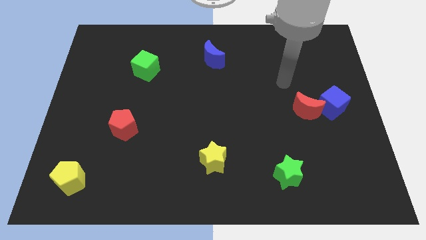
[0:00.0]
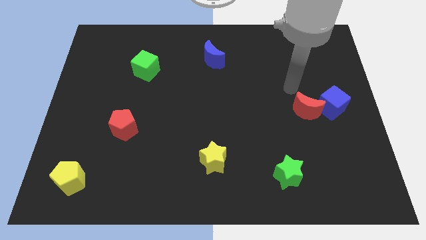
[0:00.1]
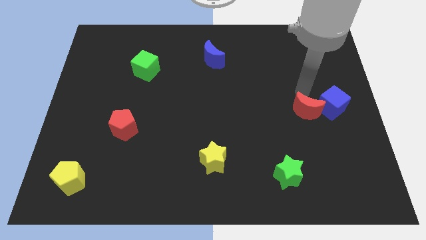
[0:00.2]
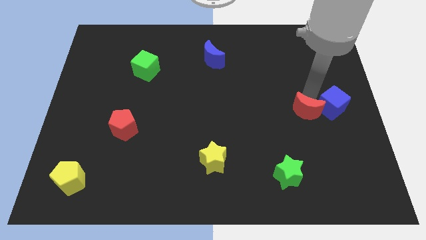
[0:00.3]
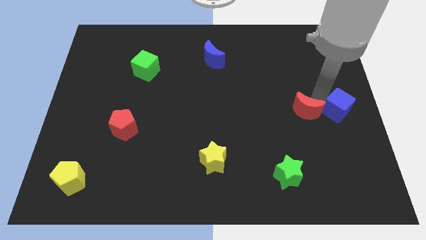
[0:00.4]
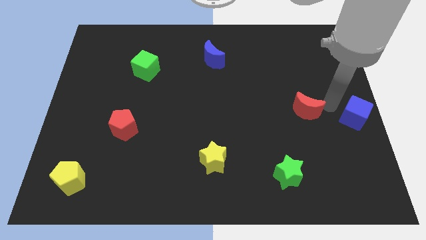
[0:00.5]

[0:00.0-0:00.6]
move the red moon away from the blue cube

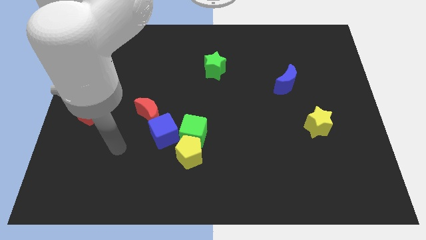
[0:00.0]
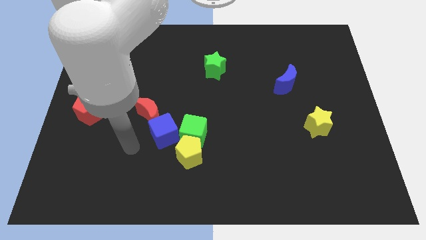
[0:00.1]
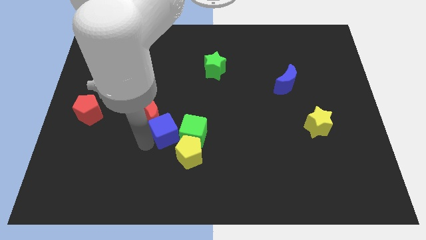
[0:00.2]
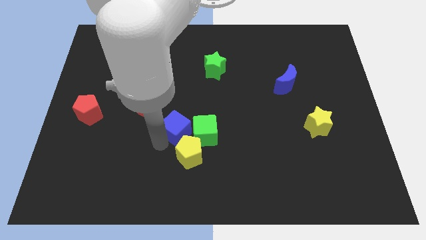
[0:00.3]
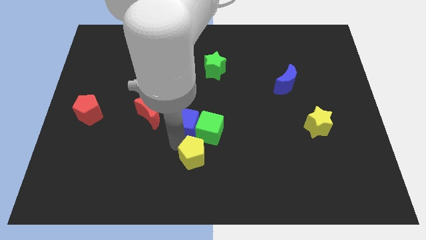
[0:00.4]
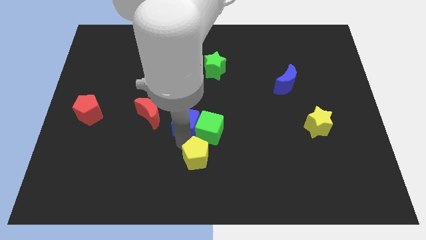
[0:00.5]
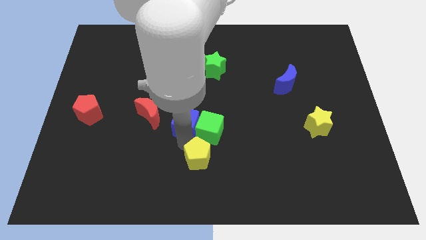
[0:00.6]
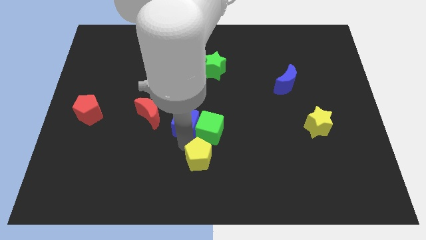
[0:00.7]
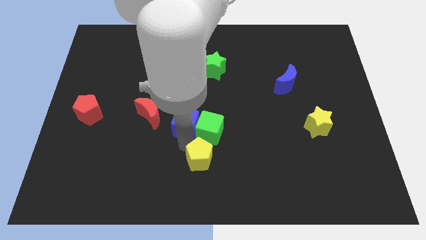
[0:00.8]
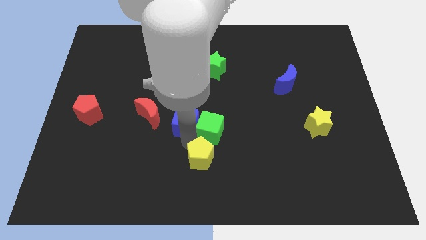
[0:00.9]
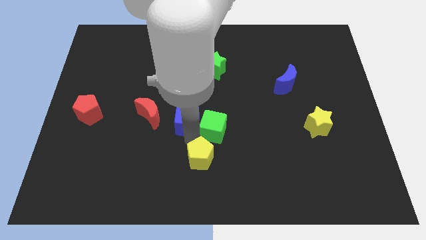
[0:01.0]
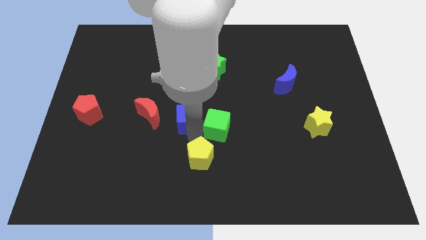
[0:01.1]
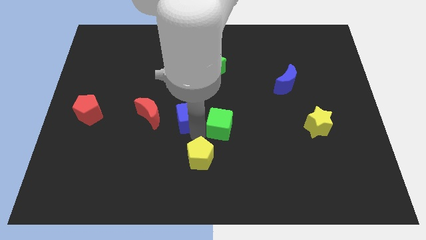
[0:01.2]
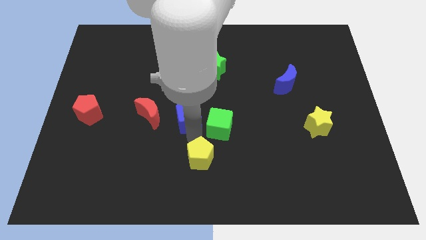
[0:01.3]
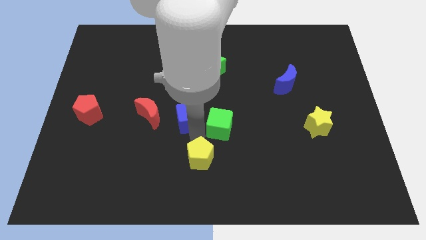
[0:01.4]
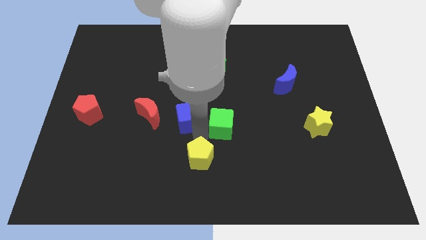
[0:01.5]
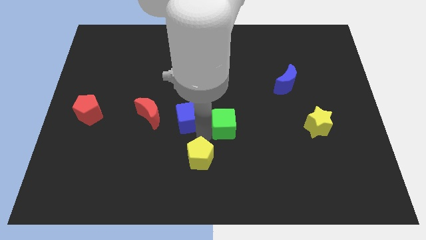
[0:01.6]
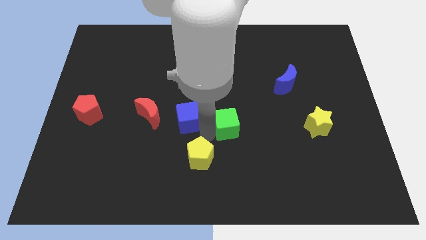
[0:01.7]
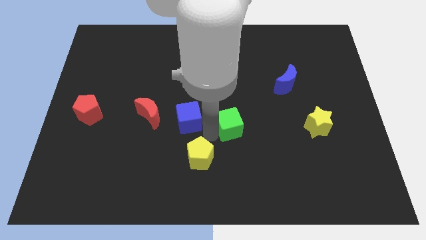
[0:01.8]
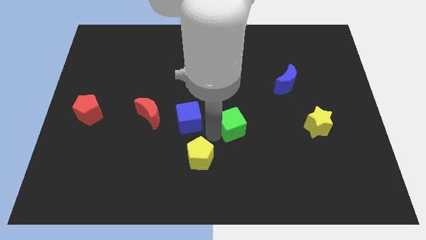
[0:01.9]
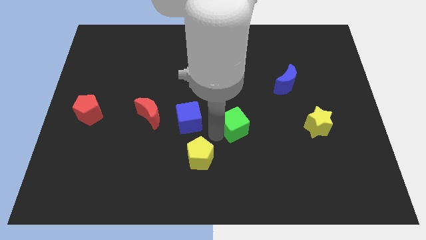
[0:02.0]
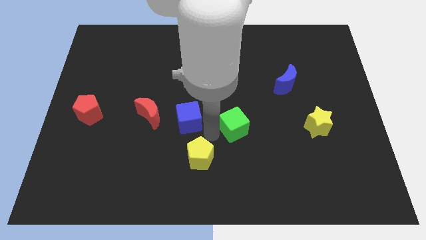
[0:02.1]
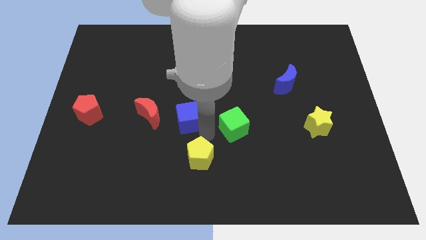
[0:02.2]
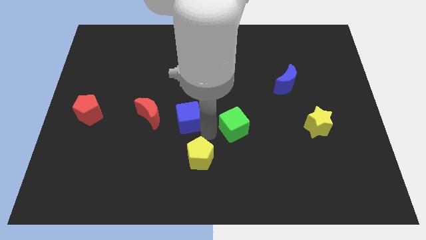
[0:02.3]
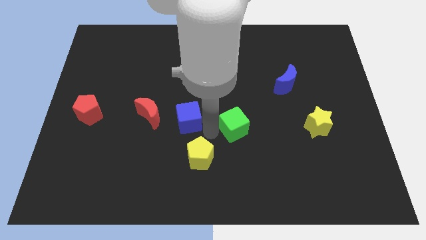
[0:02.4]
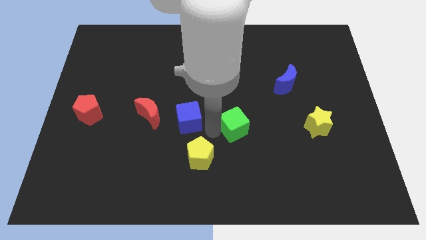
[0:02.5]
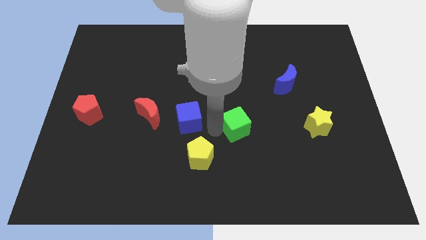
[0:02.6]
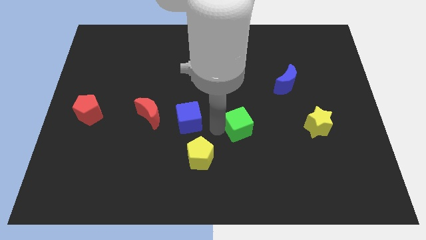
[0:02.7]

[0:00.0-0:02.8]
pull the green cube apart from the yellow pentagon and blue cube

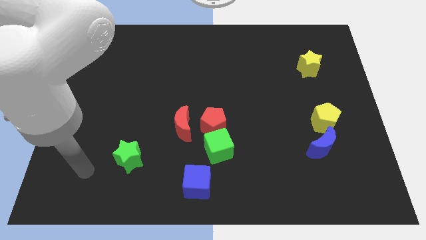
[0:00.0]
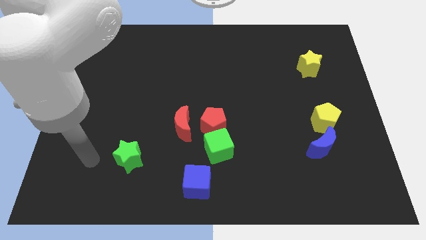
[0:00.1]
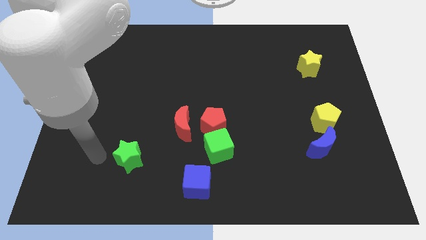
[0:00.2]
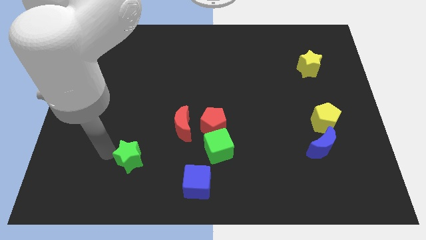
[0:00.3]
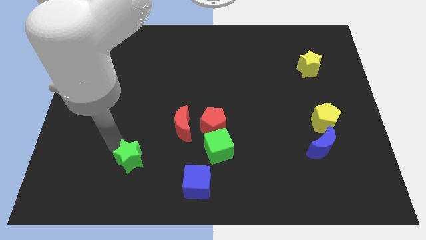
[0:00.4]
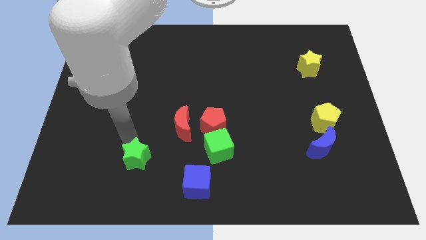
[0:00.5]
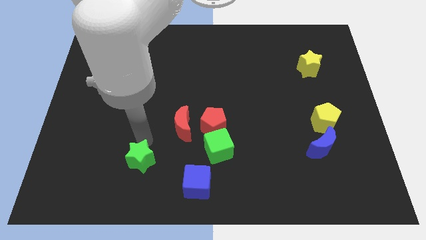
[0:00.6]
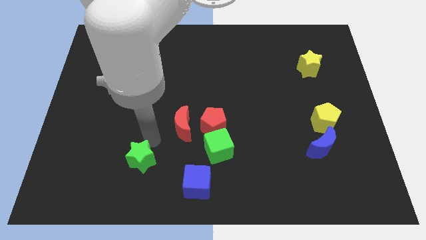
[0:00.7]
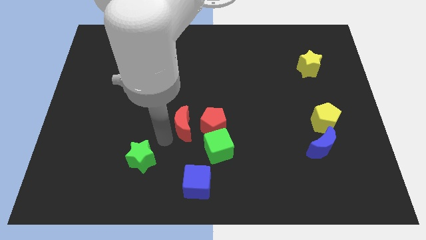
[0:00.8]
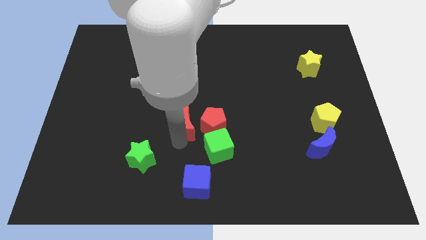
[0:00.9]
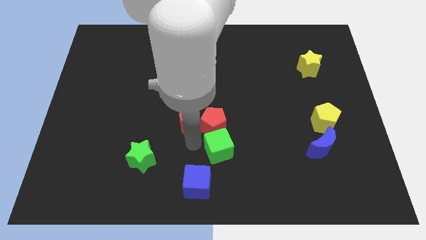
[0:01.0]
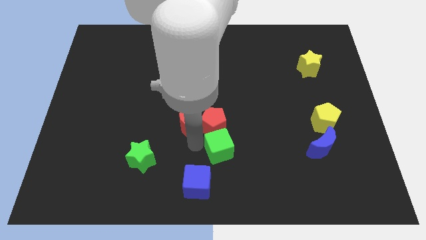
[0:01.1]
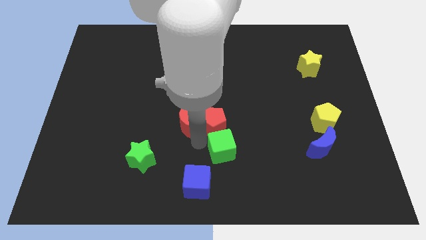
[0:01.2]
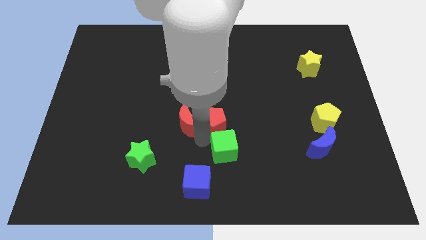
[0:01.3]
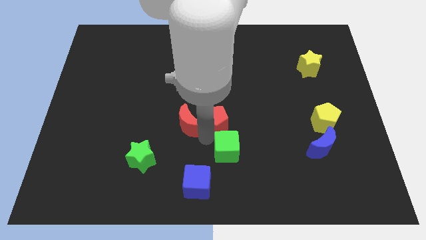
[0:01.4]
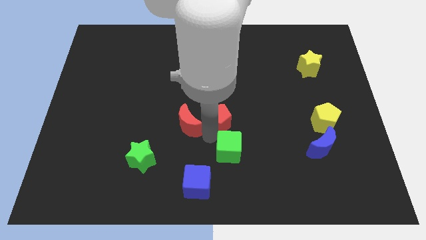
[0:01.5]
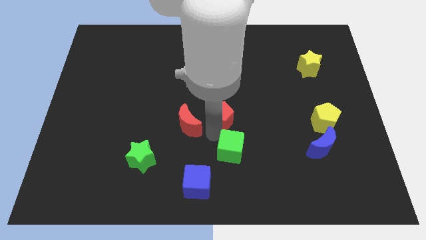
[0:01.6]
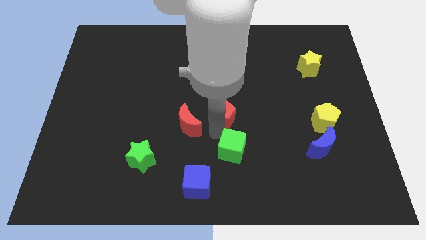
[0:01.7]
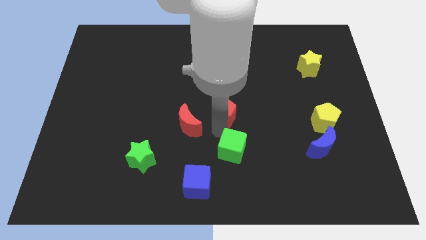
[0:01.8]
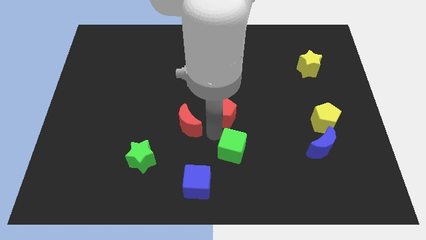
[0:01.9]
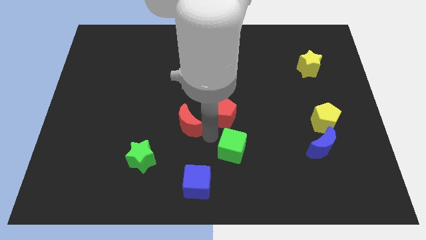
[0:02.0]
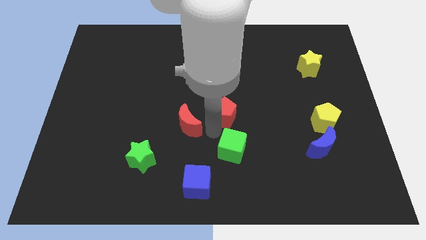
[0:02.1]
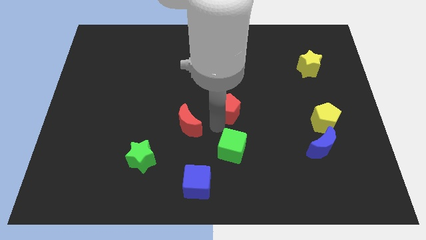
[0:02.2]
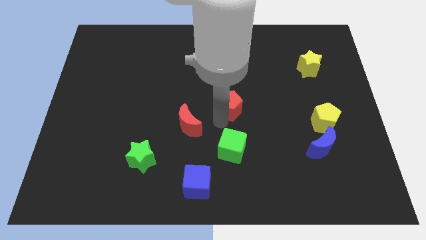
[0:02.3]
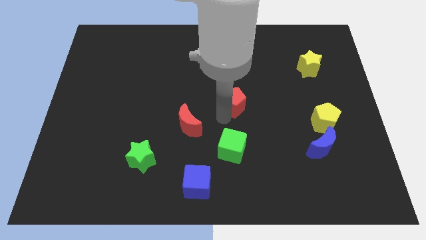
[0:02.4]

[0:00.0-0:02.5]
pull the red pentagon apart from the green cube and red moon

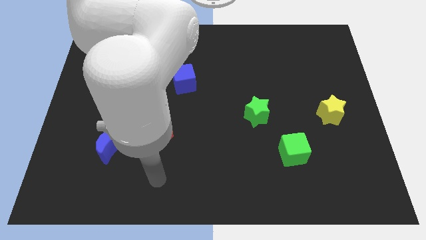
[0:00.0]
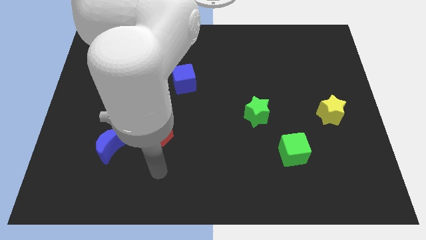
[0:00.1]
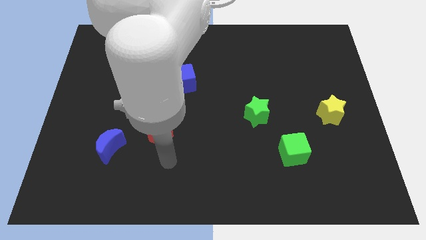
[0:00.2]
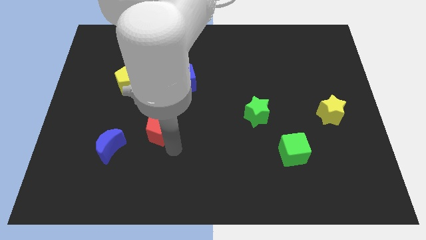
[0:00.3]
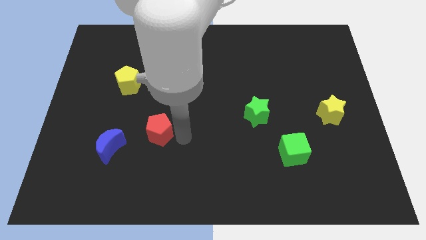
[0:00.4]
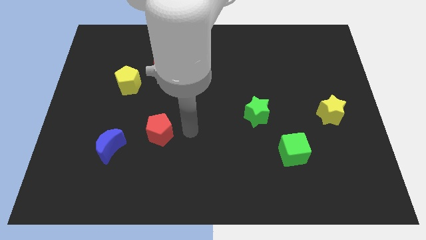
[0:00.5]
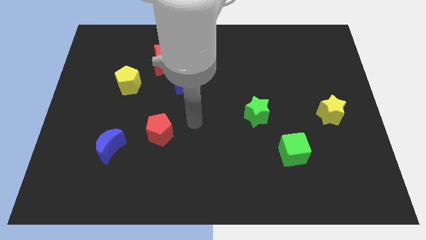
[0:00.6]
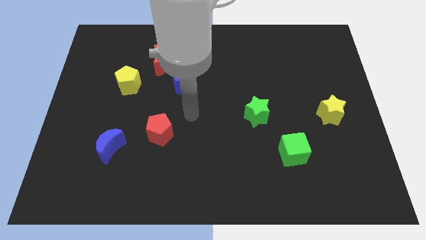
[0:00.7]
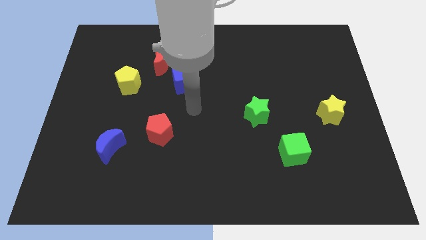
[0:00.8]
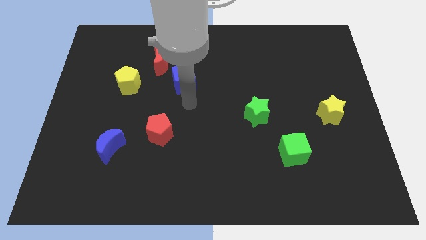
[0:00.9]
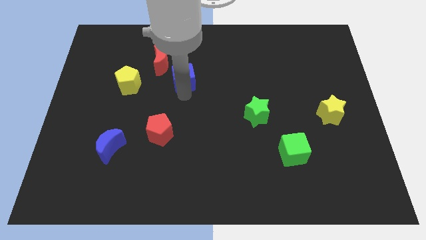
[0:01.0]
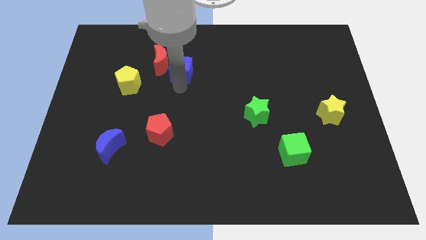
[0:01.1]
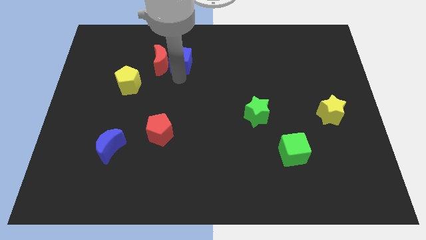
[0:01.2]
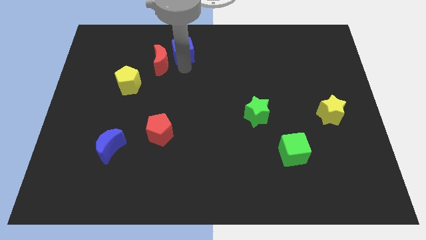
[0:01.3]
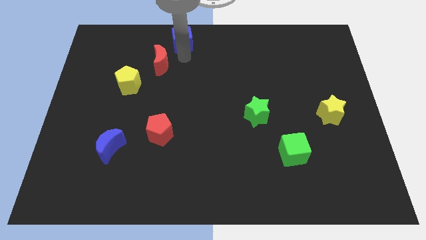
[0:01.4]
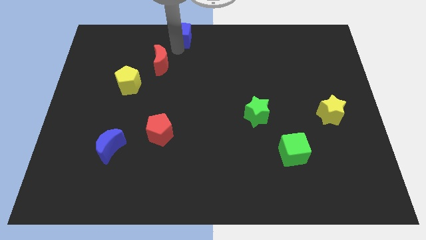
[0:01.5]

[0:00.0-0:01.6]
separate the red moon from the blue cube

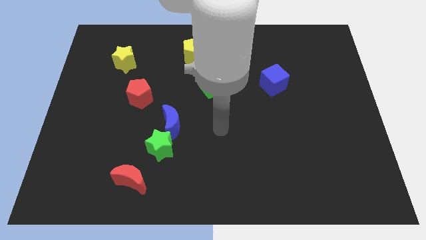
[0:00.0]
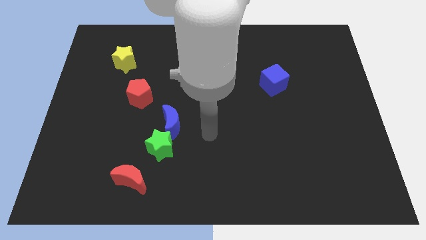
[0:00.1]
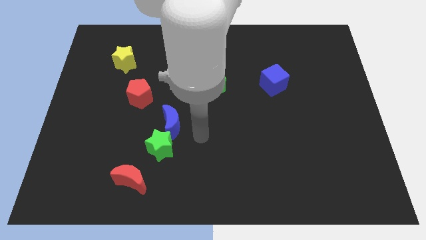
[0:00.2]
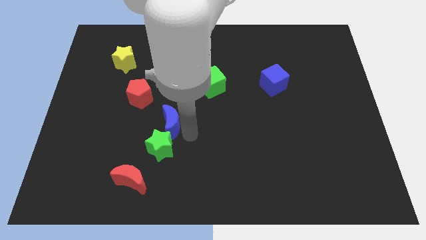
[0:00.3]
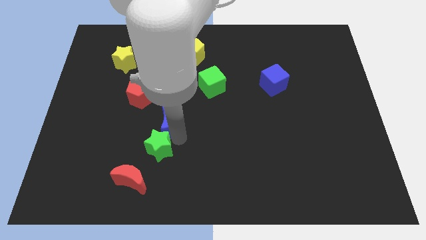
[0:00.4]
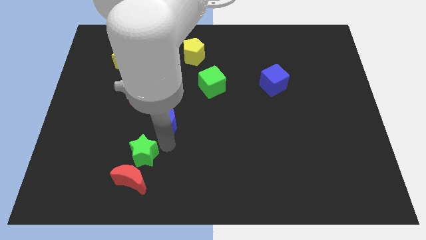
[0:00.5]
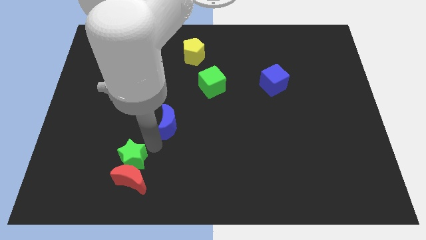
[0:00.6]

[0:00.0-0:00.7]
move the blue moon away from the green star

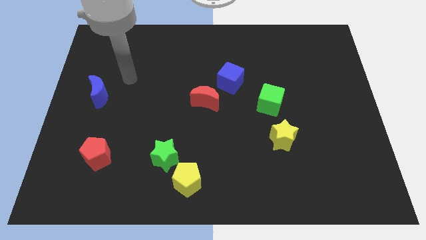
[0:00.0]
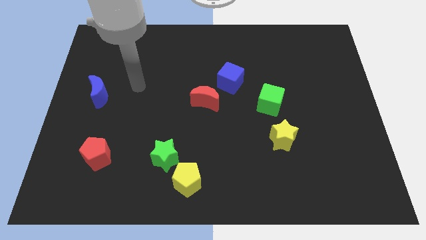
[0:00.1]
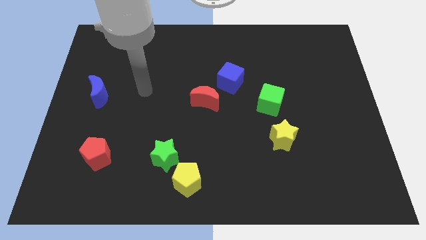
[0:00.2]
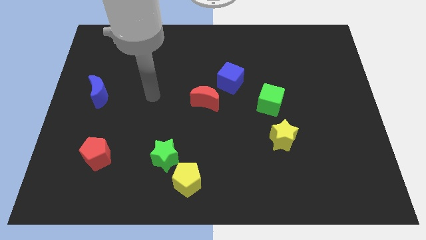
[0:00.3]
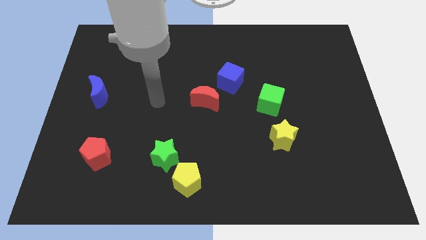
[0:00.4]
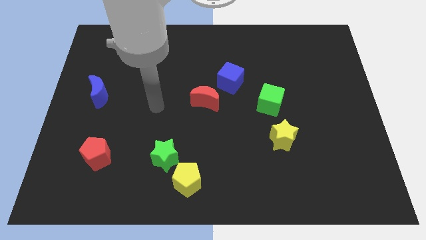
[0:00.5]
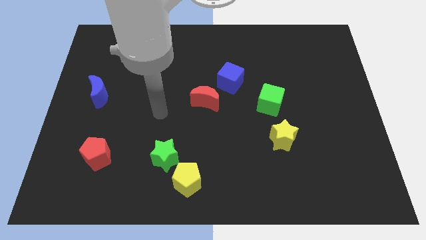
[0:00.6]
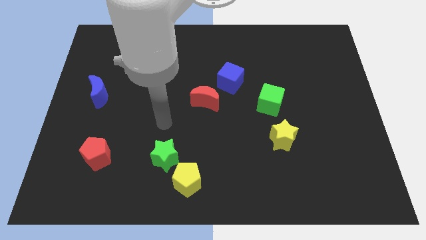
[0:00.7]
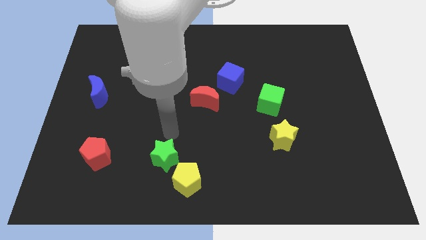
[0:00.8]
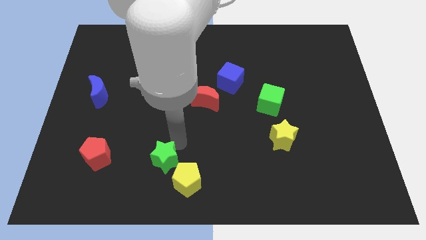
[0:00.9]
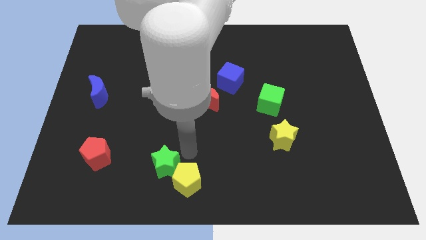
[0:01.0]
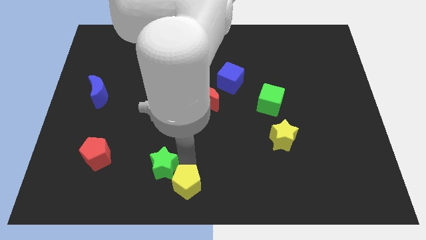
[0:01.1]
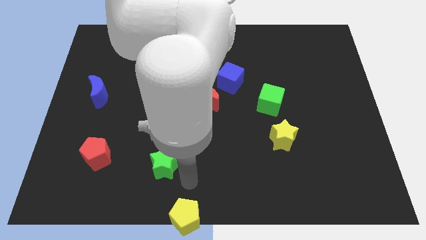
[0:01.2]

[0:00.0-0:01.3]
separate the green star from the yellow pentagon
